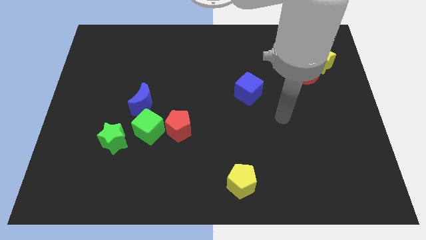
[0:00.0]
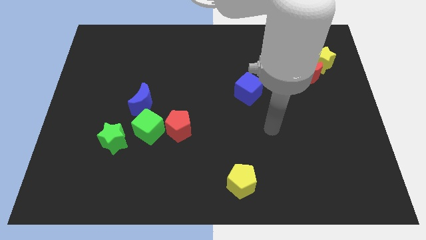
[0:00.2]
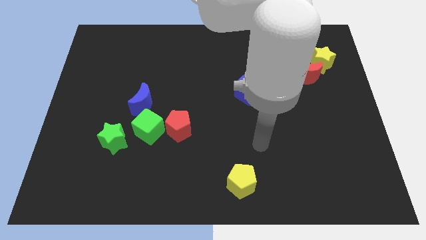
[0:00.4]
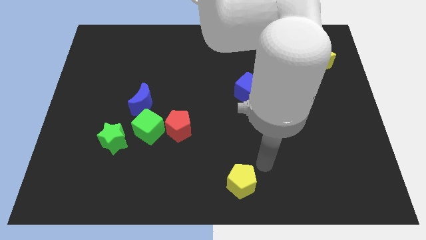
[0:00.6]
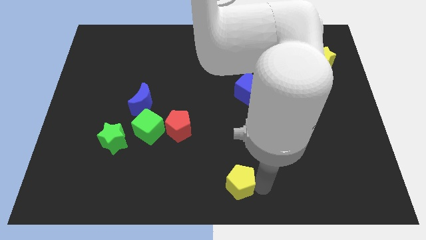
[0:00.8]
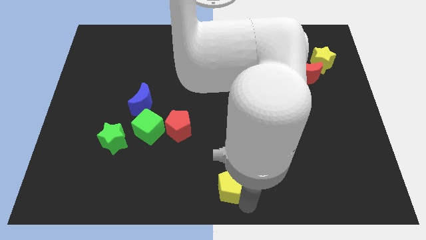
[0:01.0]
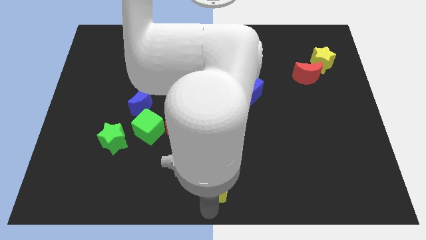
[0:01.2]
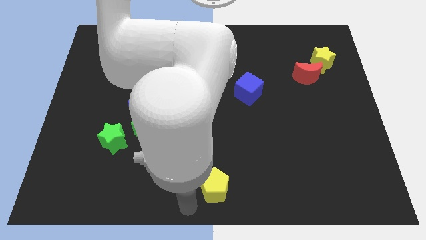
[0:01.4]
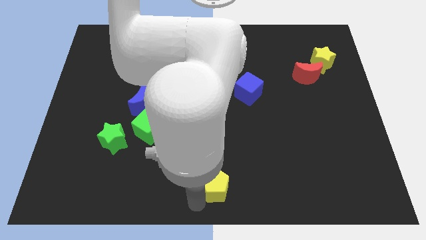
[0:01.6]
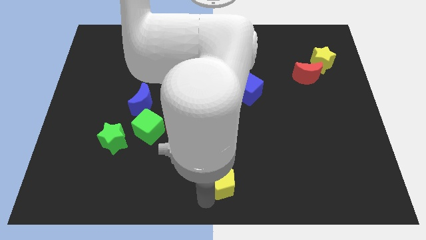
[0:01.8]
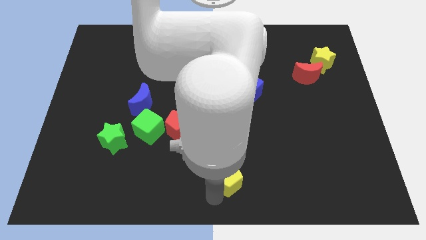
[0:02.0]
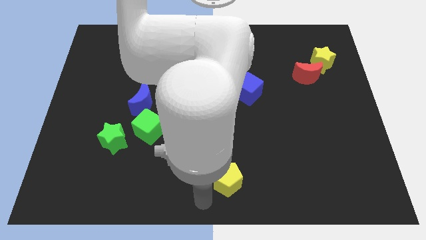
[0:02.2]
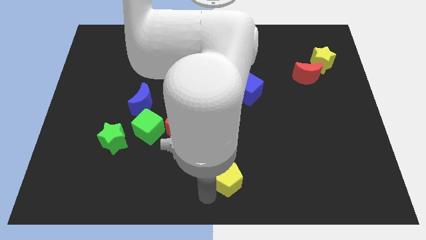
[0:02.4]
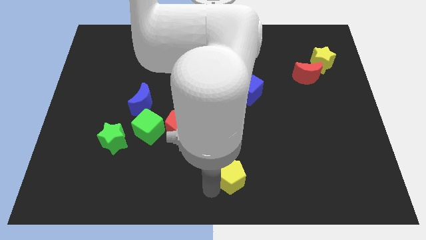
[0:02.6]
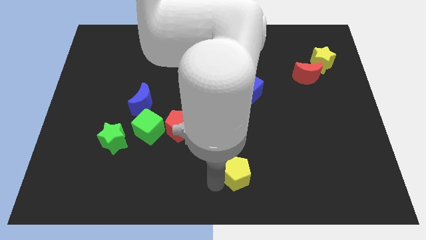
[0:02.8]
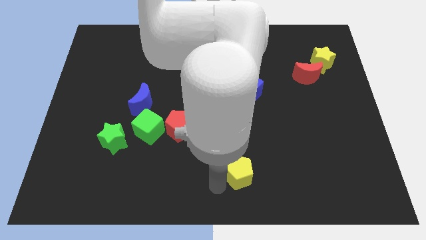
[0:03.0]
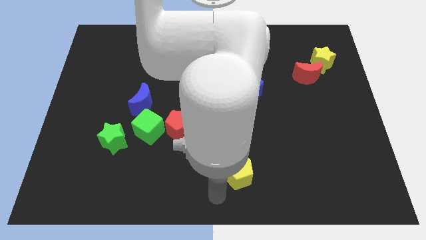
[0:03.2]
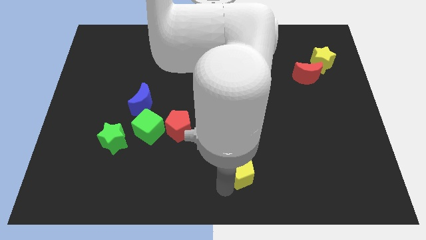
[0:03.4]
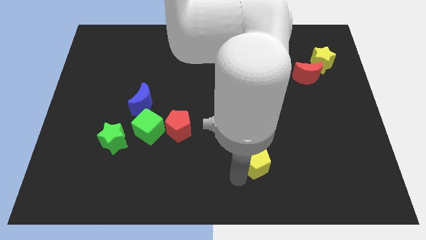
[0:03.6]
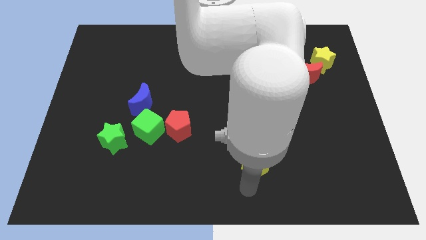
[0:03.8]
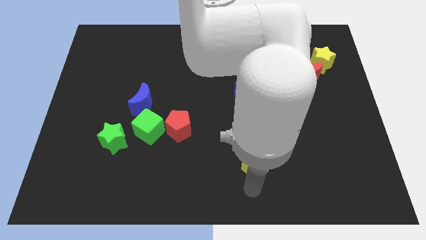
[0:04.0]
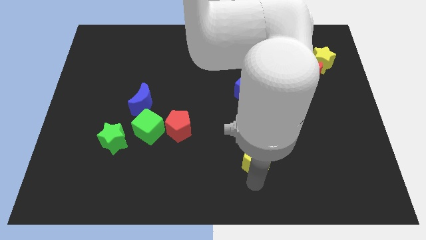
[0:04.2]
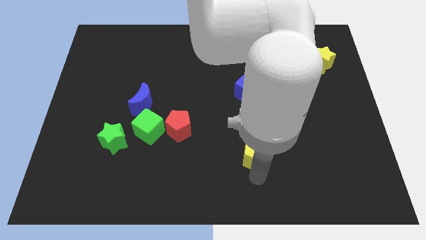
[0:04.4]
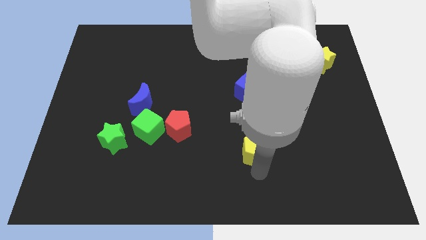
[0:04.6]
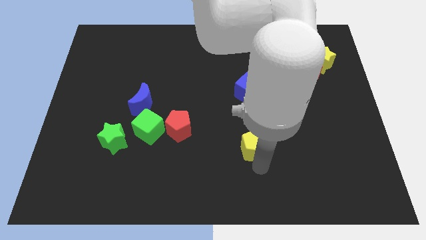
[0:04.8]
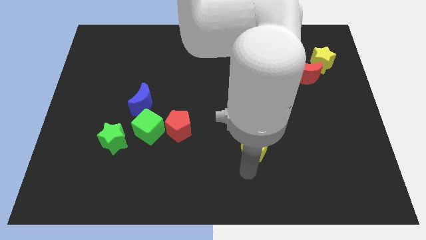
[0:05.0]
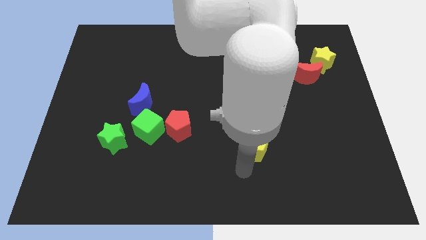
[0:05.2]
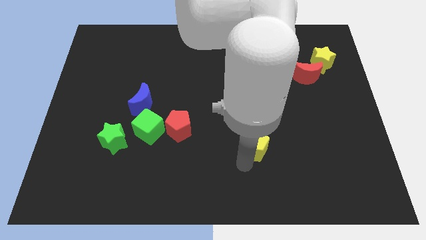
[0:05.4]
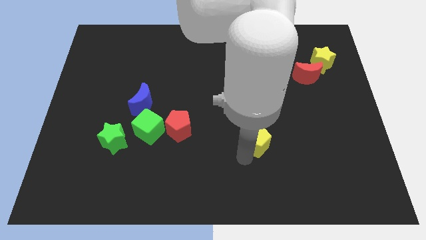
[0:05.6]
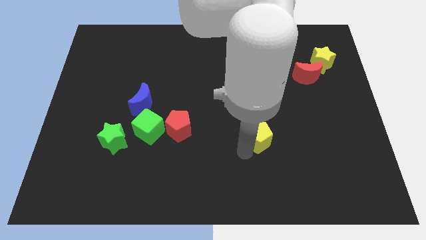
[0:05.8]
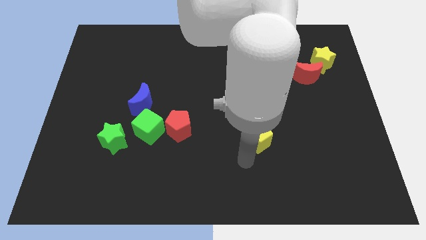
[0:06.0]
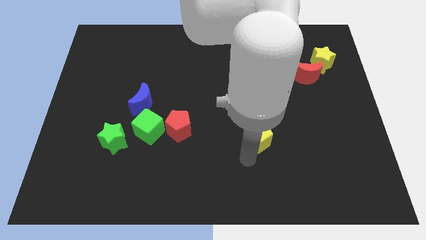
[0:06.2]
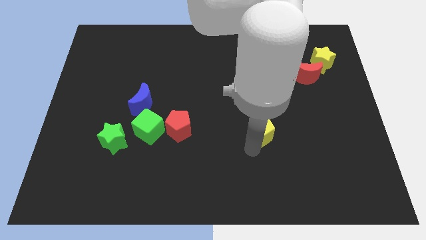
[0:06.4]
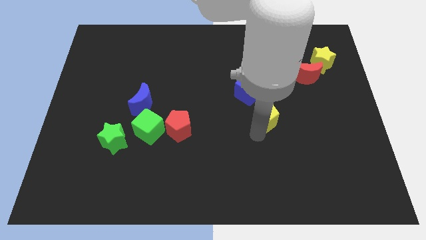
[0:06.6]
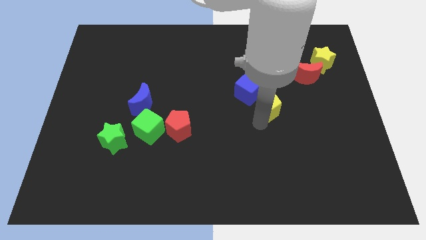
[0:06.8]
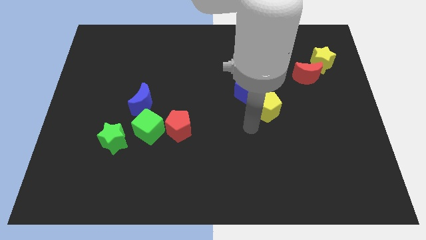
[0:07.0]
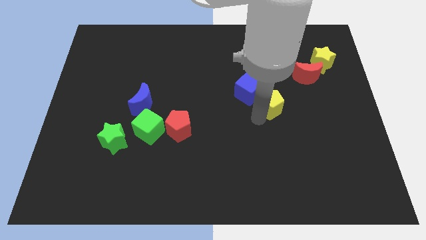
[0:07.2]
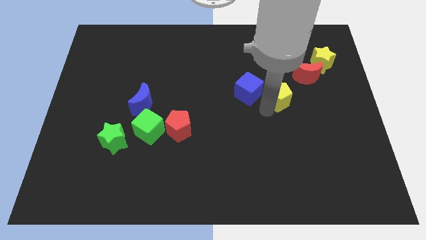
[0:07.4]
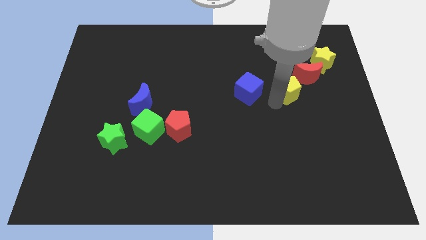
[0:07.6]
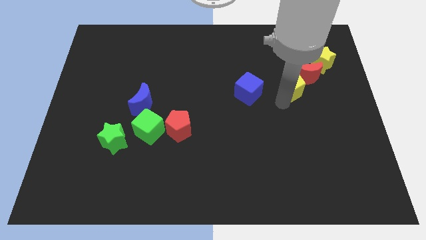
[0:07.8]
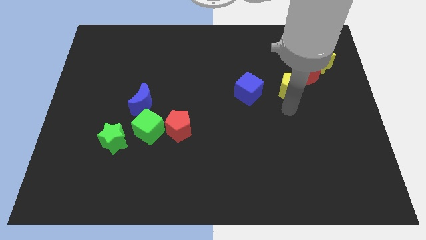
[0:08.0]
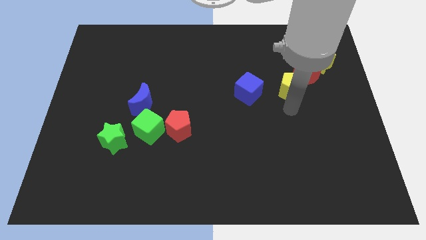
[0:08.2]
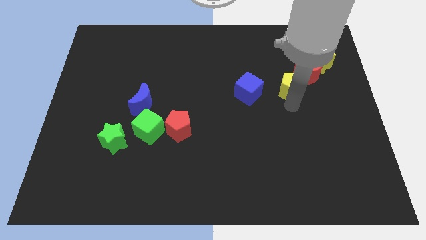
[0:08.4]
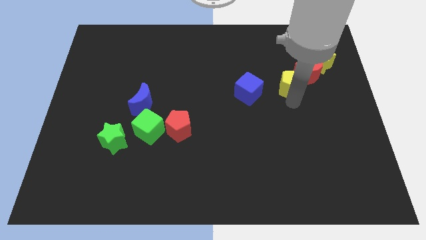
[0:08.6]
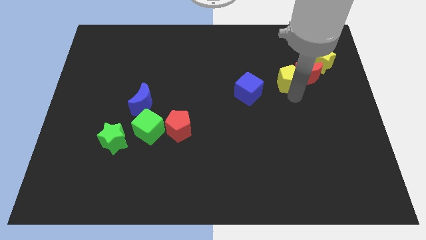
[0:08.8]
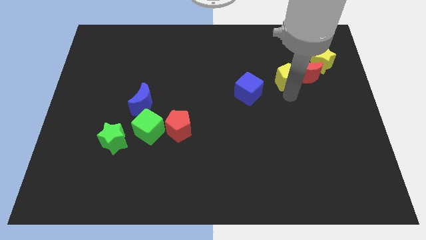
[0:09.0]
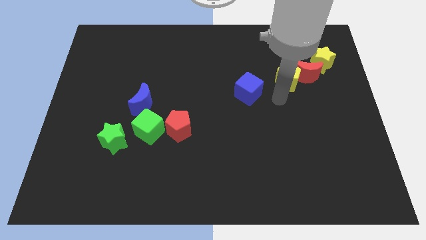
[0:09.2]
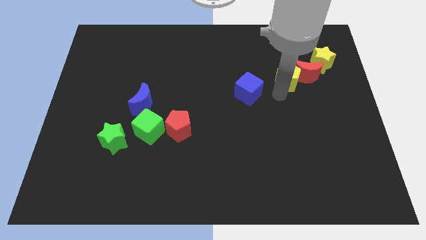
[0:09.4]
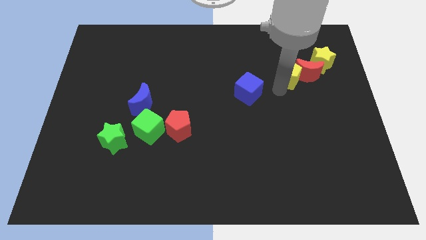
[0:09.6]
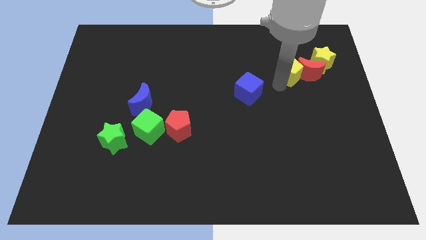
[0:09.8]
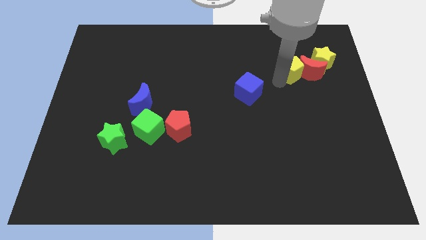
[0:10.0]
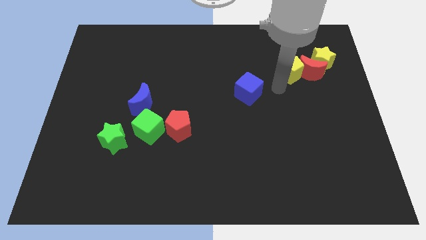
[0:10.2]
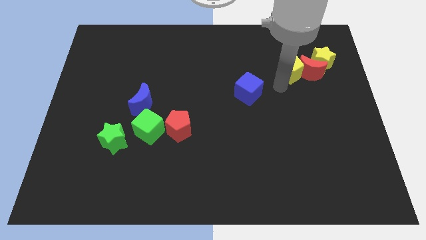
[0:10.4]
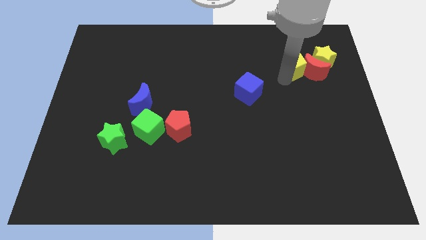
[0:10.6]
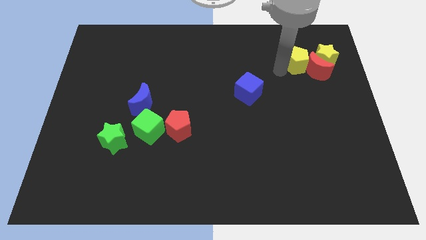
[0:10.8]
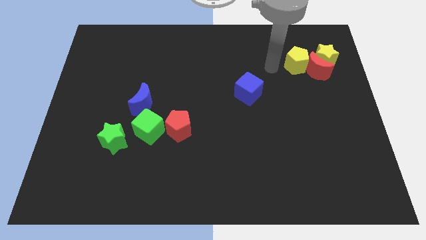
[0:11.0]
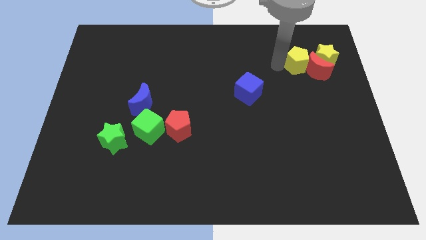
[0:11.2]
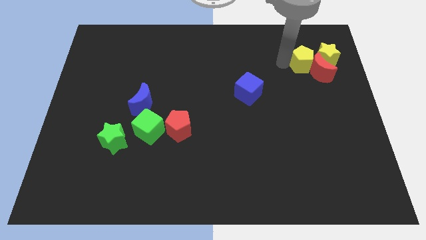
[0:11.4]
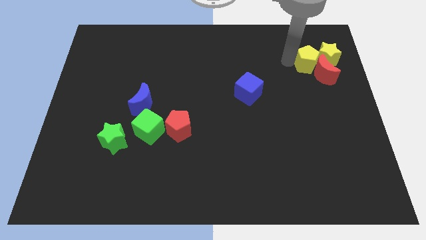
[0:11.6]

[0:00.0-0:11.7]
put the yellow pentagon close to the yellow star

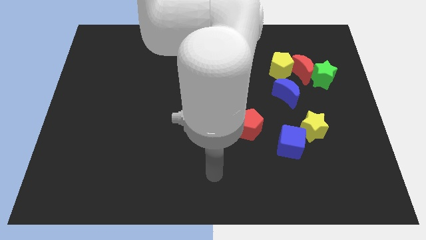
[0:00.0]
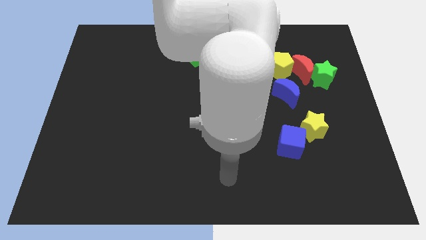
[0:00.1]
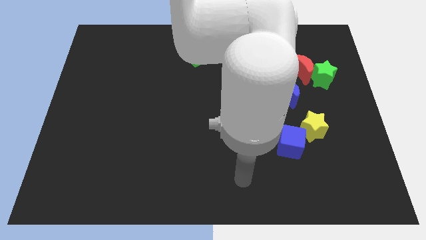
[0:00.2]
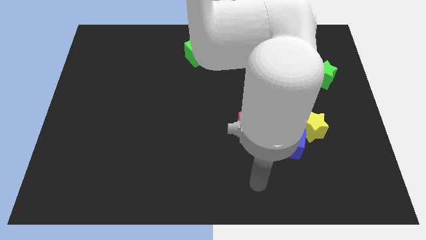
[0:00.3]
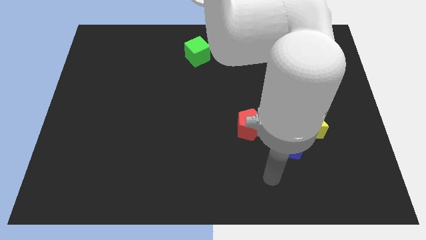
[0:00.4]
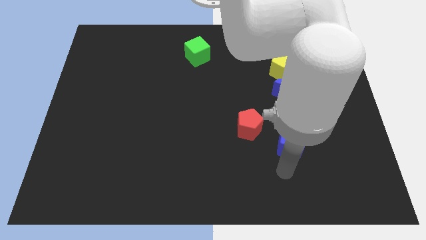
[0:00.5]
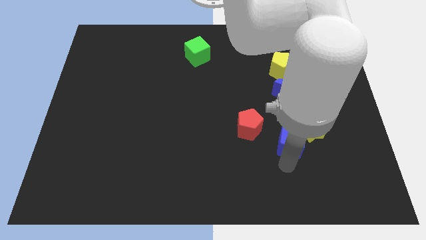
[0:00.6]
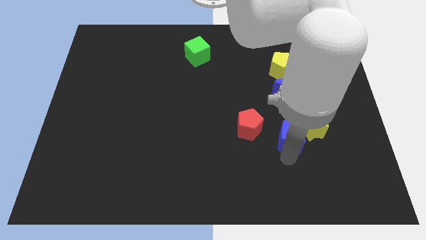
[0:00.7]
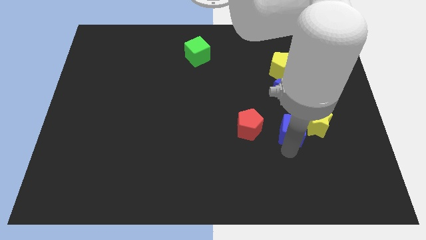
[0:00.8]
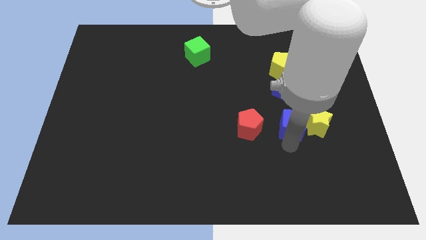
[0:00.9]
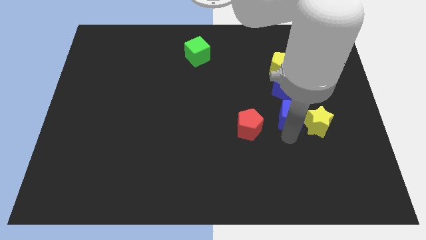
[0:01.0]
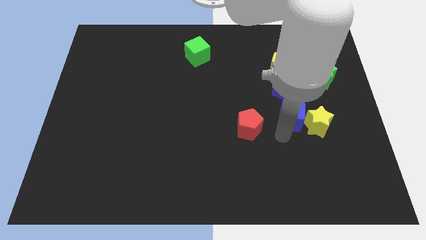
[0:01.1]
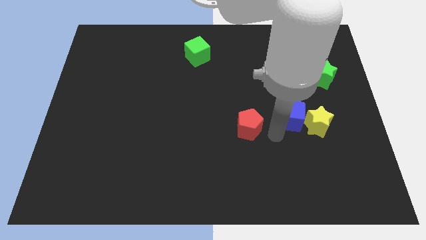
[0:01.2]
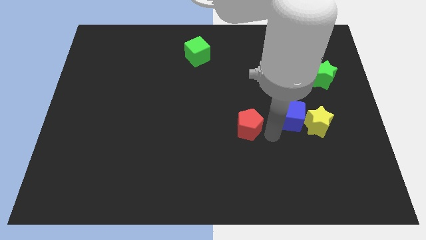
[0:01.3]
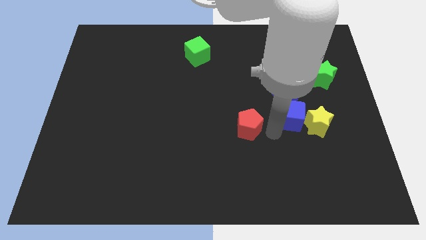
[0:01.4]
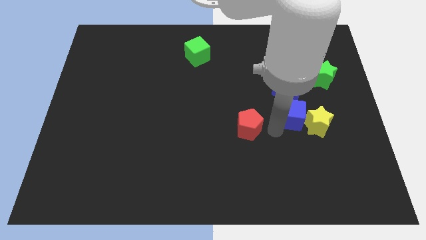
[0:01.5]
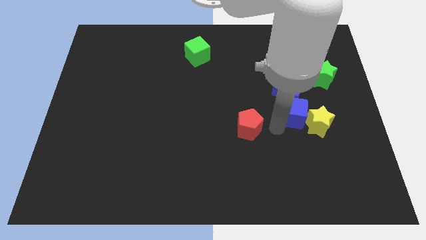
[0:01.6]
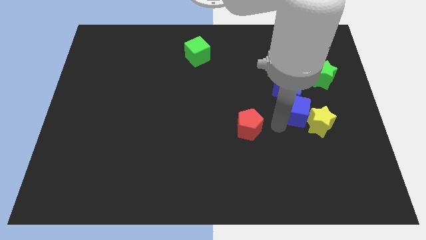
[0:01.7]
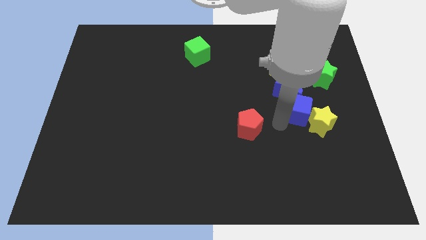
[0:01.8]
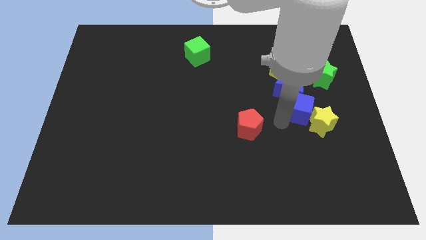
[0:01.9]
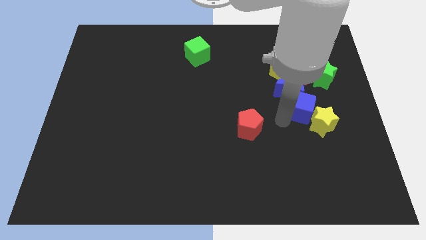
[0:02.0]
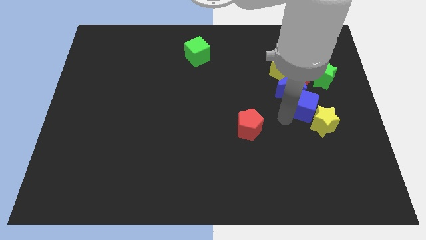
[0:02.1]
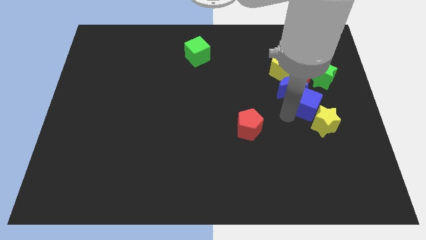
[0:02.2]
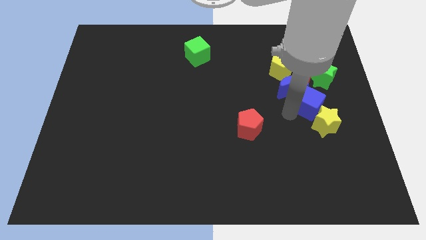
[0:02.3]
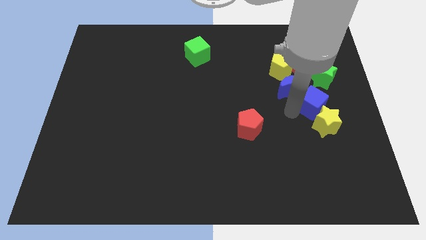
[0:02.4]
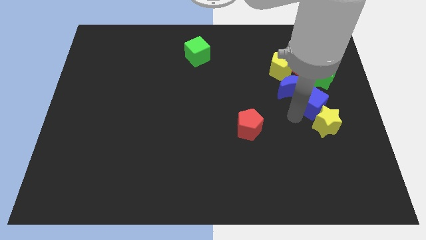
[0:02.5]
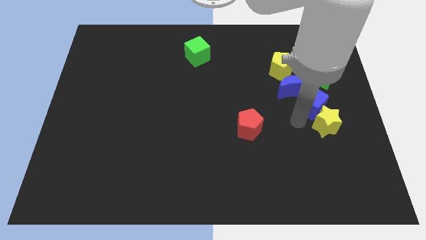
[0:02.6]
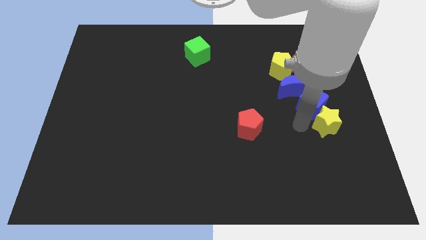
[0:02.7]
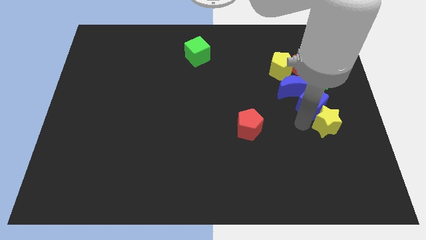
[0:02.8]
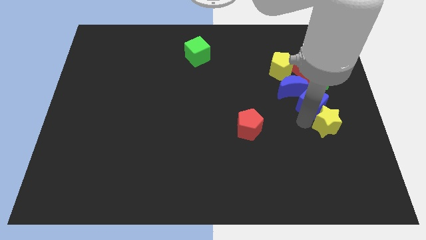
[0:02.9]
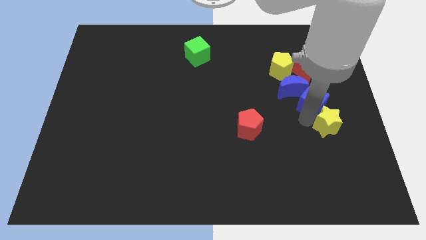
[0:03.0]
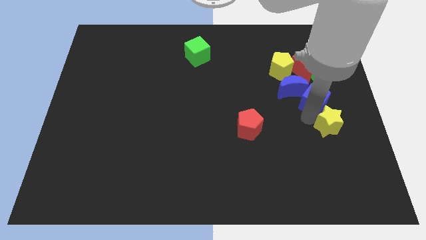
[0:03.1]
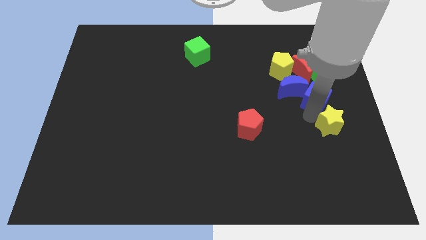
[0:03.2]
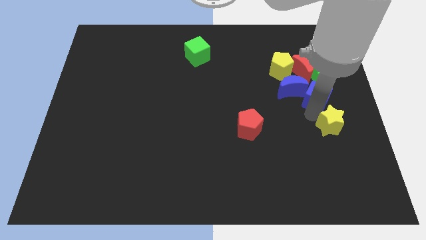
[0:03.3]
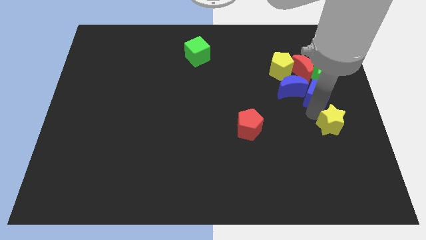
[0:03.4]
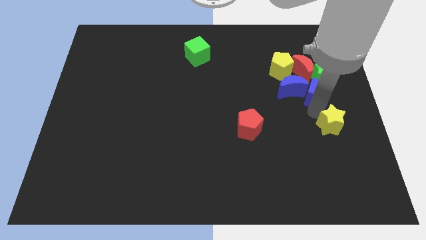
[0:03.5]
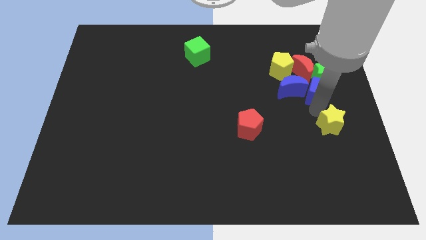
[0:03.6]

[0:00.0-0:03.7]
put the blue cube to the green star
